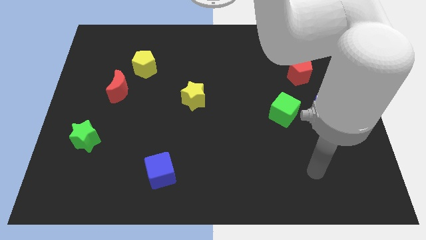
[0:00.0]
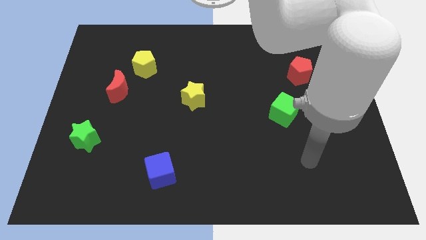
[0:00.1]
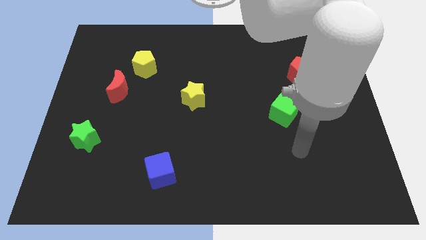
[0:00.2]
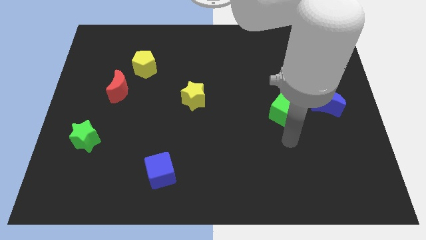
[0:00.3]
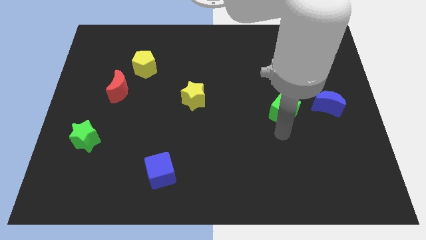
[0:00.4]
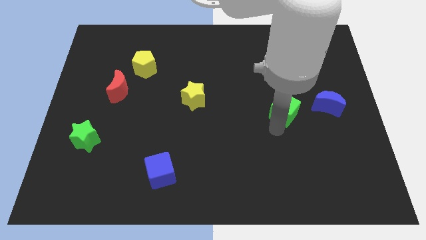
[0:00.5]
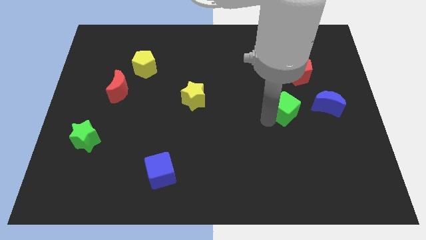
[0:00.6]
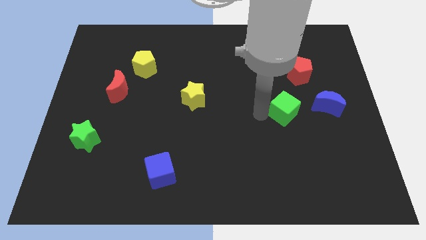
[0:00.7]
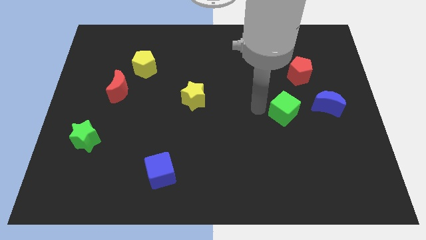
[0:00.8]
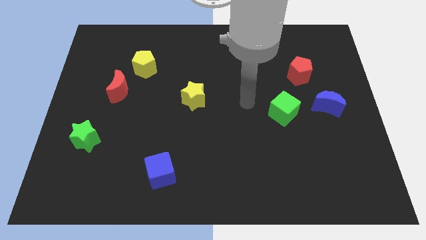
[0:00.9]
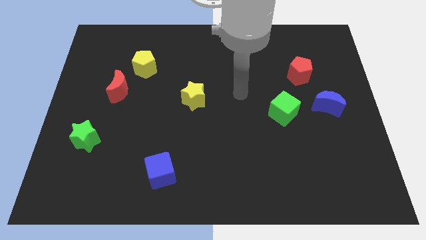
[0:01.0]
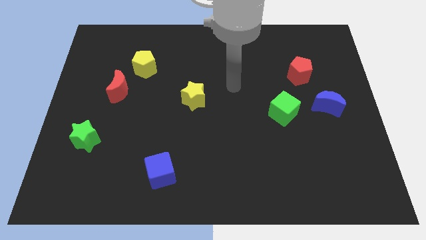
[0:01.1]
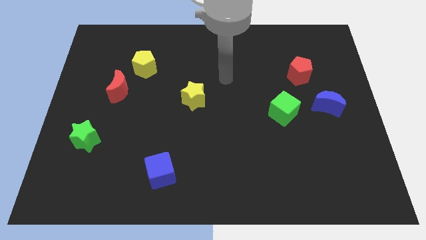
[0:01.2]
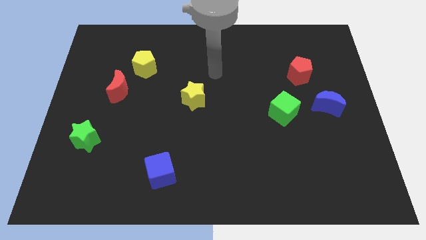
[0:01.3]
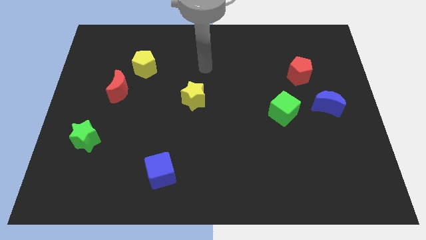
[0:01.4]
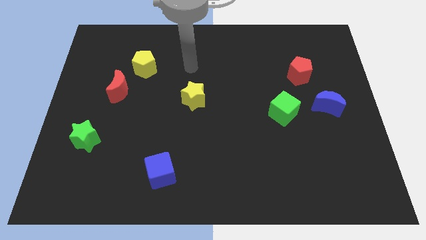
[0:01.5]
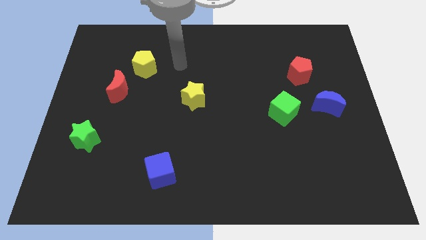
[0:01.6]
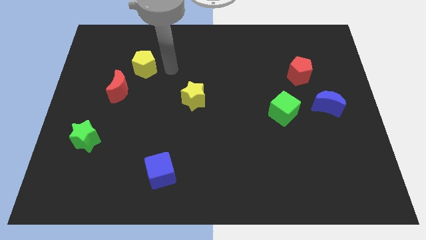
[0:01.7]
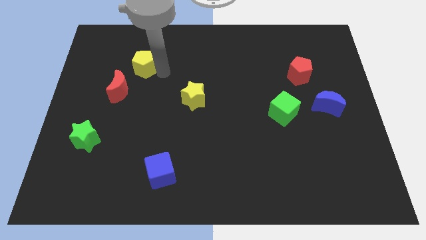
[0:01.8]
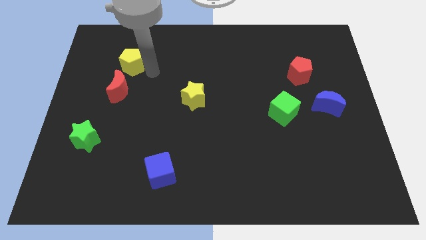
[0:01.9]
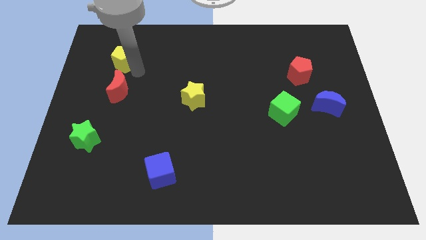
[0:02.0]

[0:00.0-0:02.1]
separate the red moon from the yellow pentagon

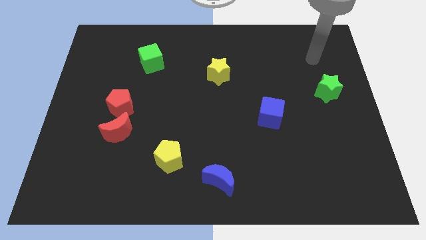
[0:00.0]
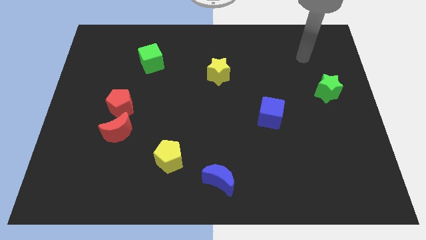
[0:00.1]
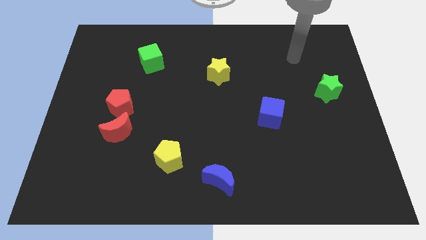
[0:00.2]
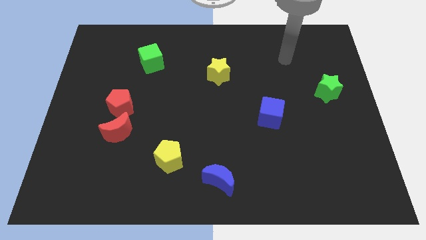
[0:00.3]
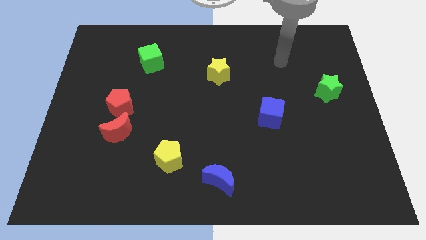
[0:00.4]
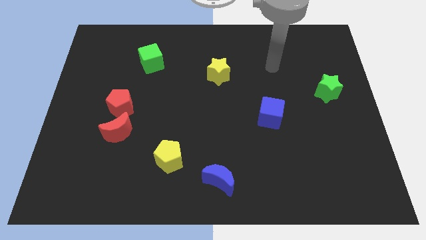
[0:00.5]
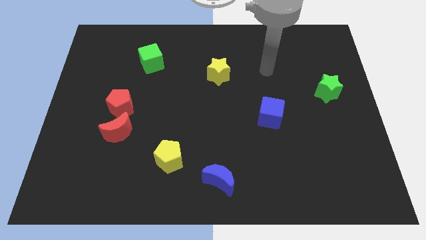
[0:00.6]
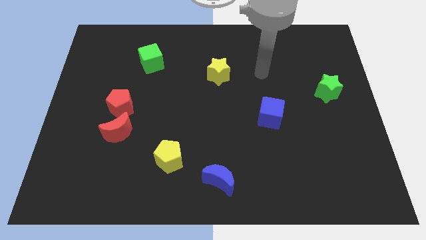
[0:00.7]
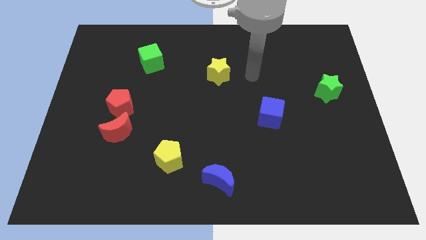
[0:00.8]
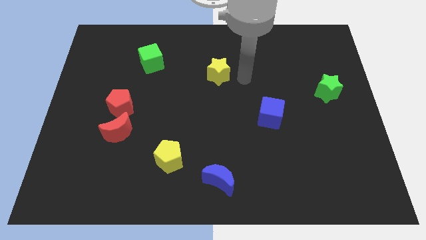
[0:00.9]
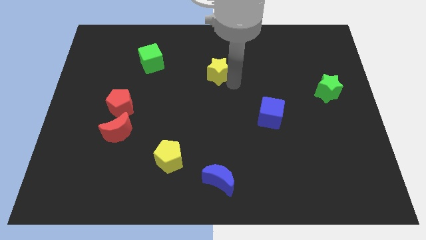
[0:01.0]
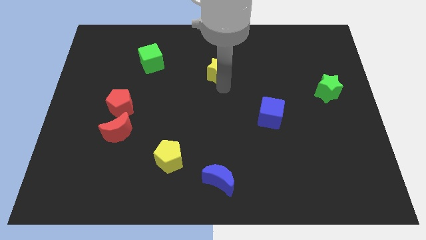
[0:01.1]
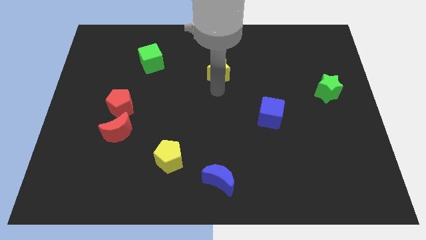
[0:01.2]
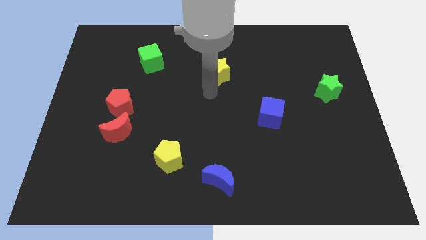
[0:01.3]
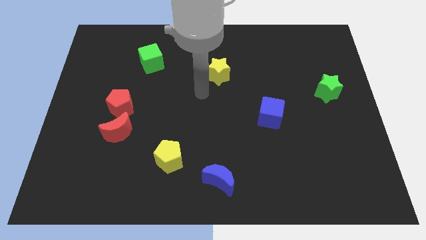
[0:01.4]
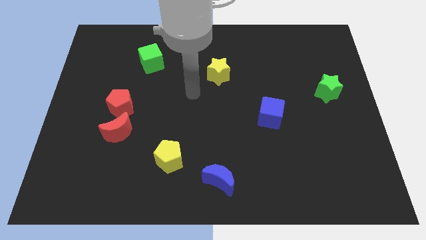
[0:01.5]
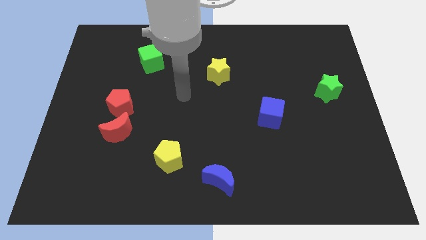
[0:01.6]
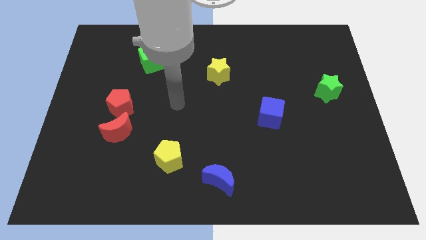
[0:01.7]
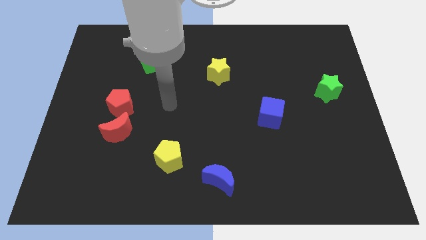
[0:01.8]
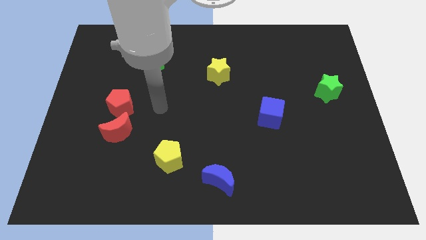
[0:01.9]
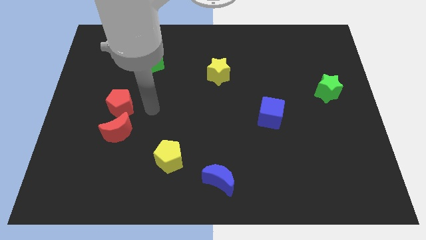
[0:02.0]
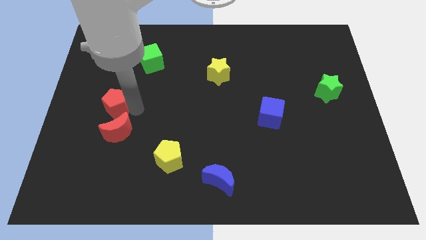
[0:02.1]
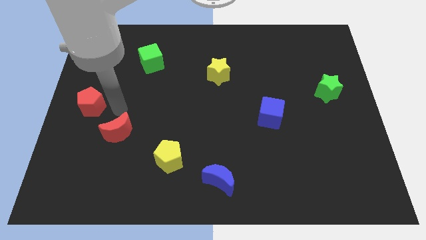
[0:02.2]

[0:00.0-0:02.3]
move the red moon away from the red pentagon

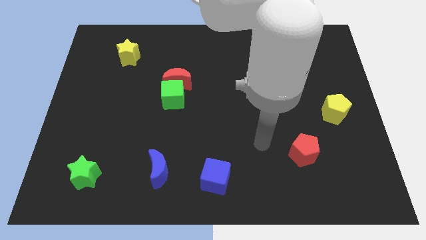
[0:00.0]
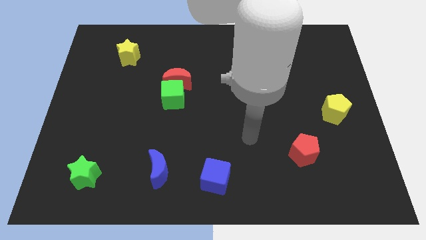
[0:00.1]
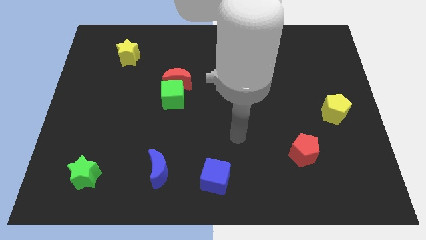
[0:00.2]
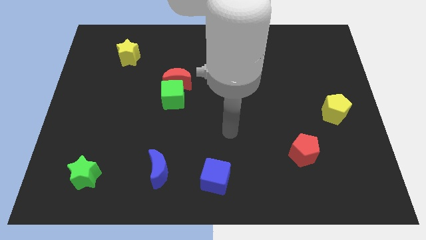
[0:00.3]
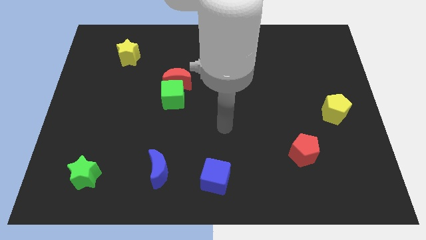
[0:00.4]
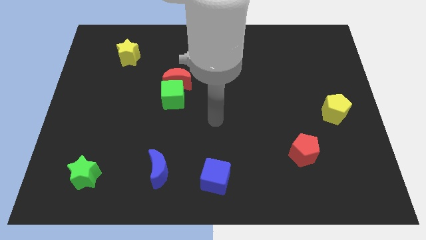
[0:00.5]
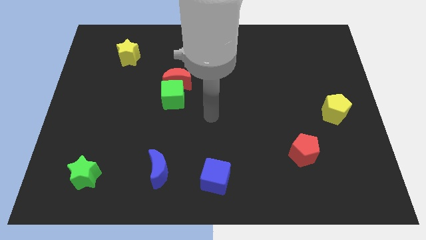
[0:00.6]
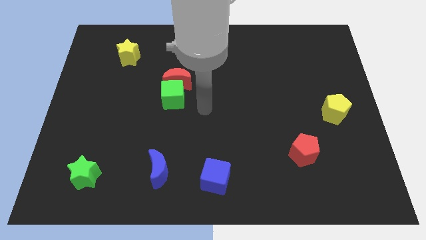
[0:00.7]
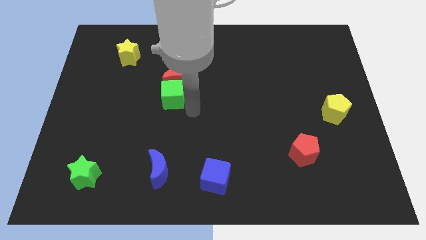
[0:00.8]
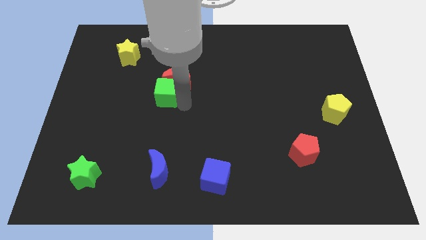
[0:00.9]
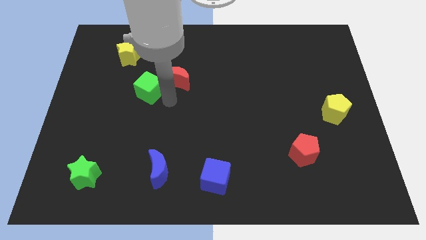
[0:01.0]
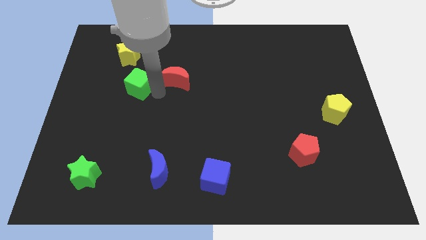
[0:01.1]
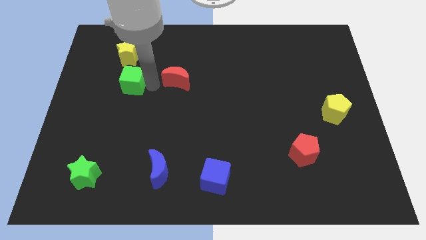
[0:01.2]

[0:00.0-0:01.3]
pull the red moon apart from the green cube

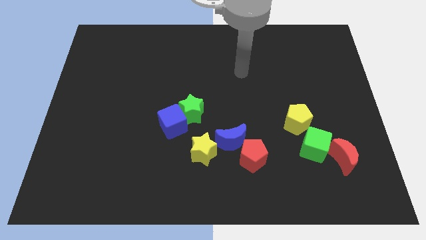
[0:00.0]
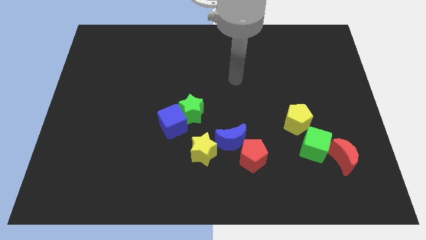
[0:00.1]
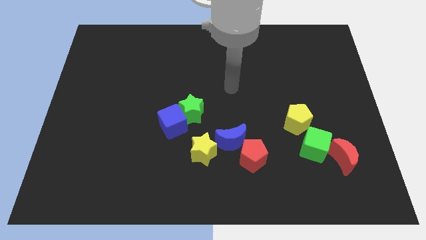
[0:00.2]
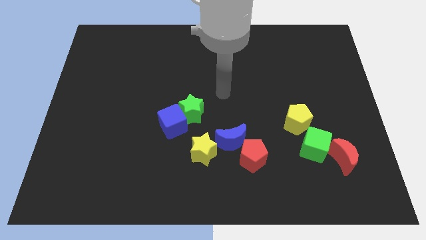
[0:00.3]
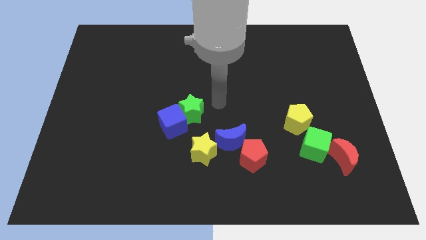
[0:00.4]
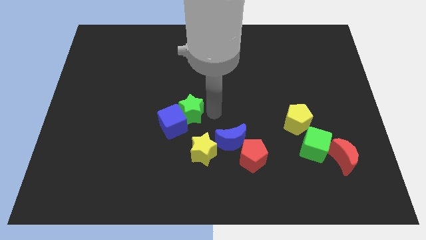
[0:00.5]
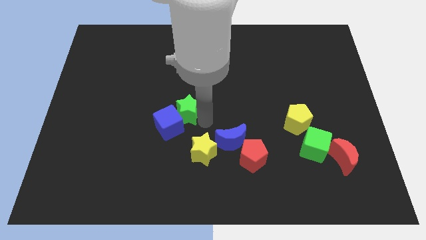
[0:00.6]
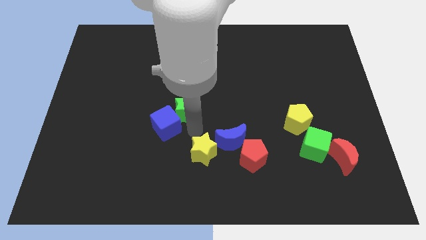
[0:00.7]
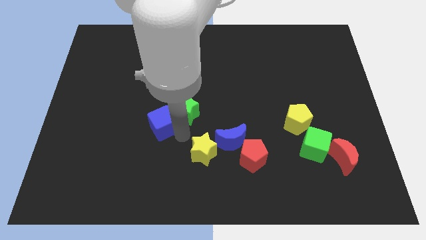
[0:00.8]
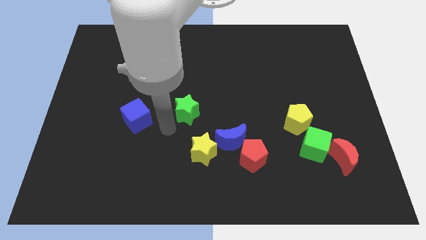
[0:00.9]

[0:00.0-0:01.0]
move the green star away from the blue cube

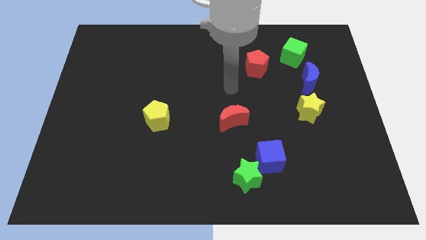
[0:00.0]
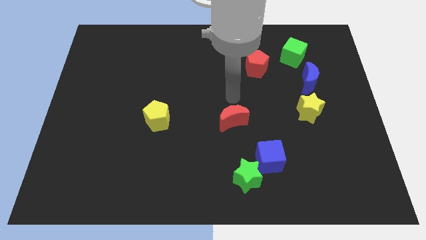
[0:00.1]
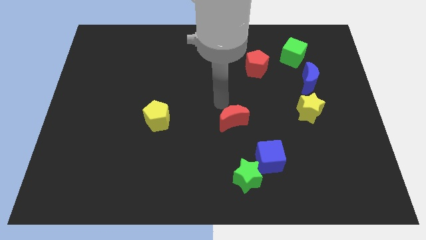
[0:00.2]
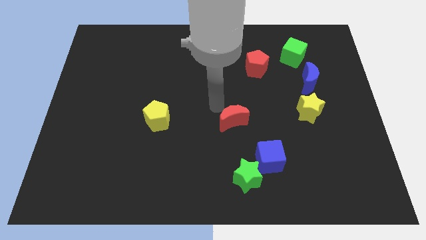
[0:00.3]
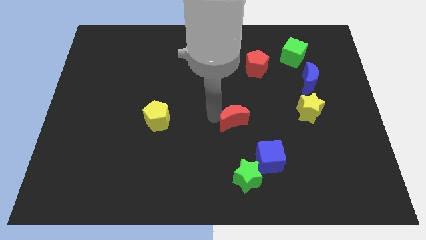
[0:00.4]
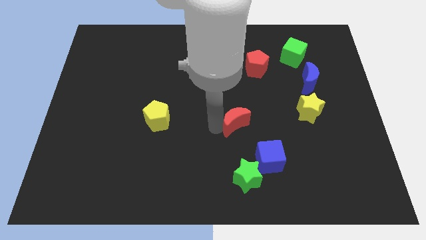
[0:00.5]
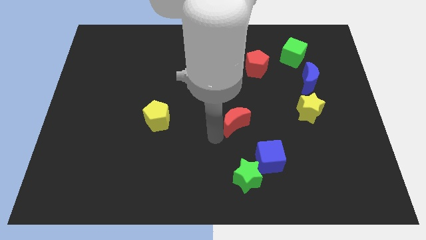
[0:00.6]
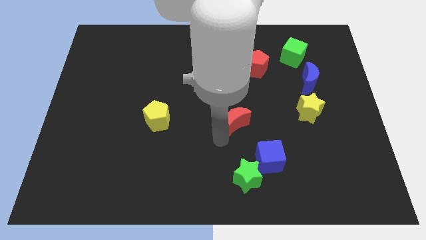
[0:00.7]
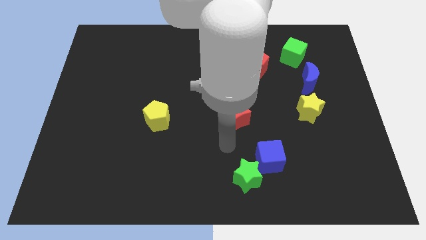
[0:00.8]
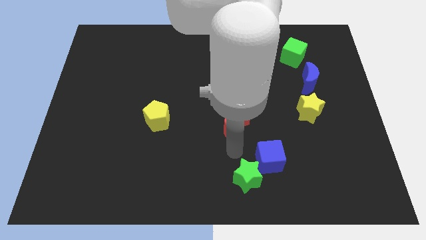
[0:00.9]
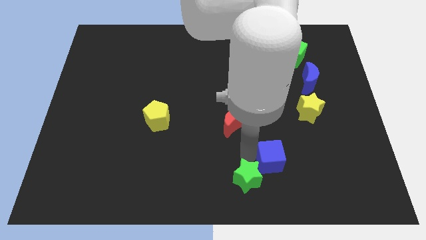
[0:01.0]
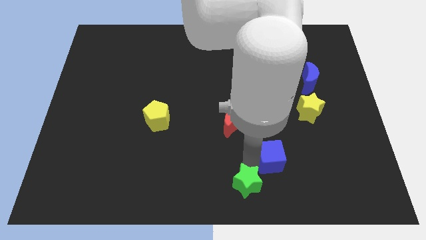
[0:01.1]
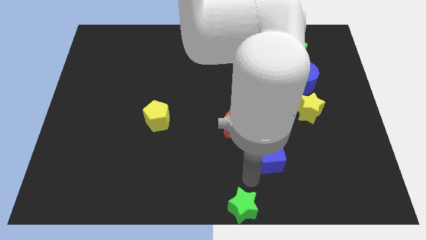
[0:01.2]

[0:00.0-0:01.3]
pull the blue cube apart from the green star

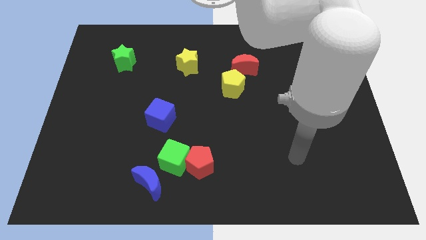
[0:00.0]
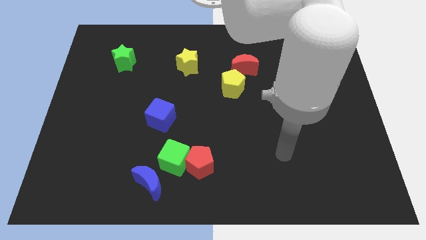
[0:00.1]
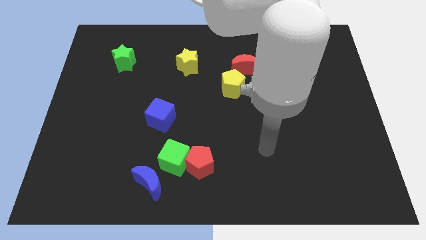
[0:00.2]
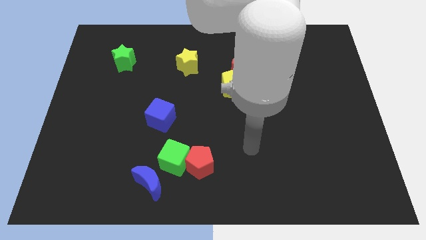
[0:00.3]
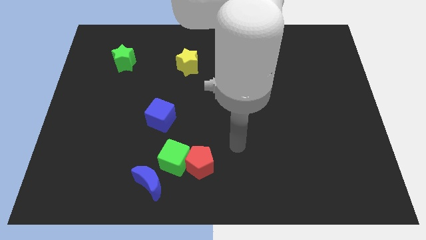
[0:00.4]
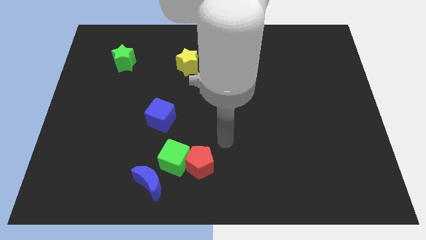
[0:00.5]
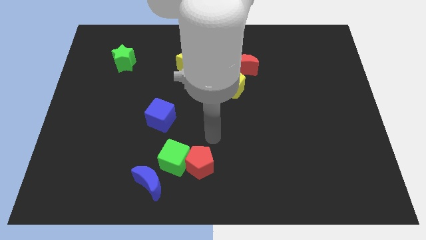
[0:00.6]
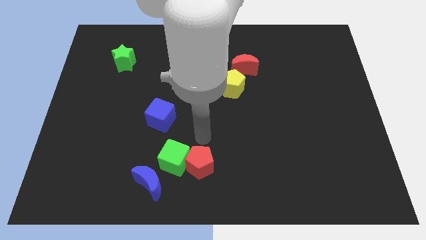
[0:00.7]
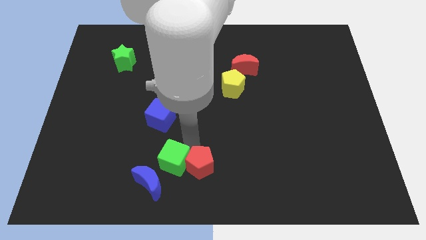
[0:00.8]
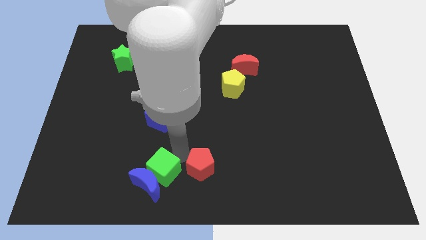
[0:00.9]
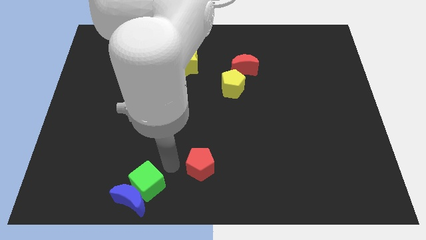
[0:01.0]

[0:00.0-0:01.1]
separate the red pentagon from the green cube

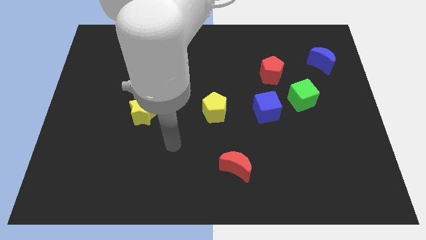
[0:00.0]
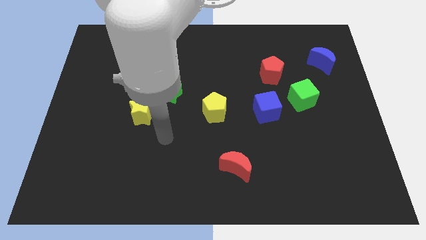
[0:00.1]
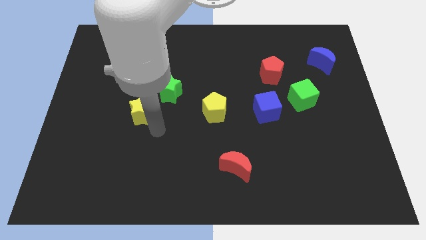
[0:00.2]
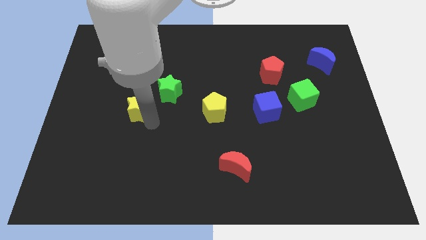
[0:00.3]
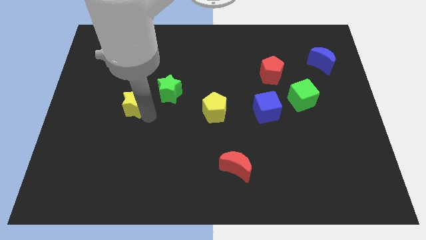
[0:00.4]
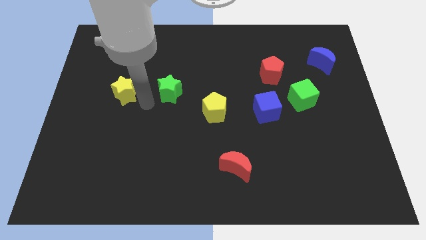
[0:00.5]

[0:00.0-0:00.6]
separate the green star from the yellow star
